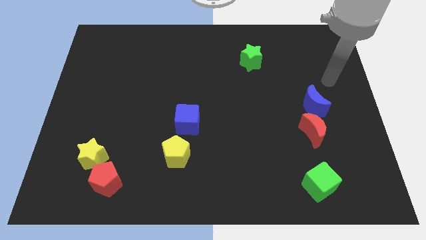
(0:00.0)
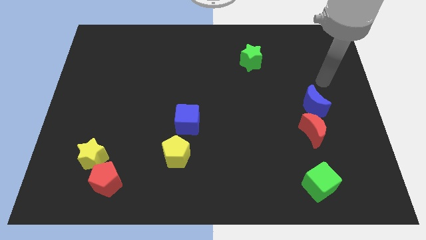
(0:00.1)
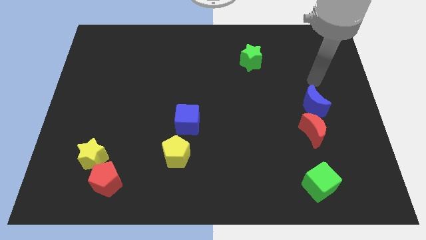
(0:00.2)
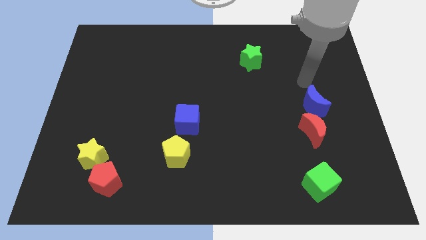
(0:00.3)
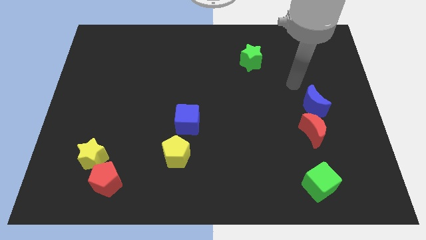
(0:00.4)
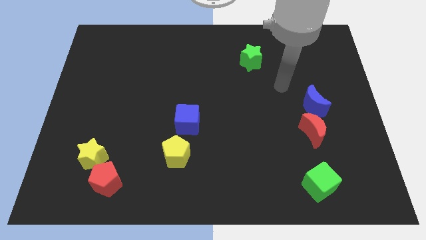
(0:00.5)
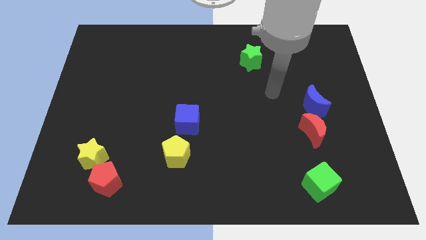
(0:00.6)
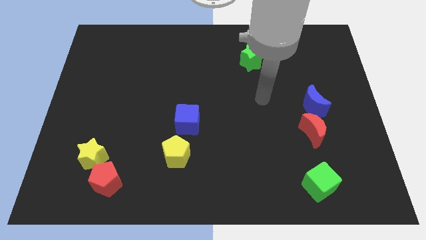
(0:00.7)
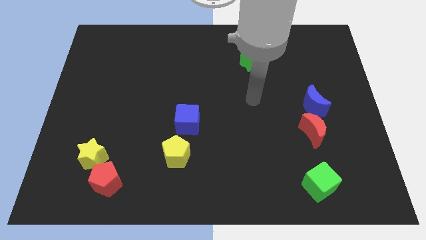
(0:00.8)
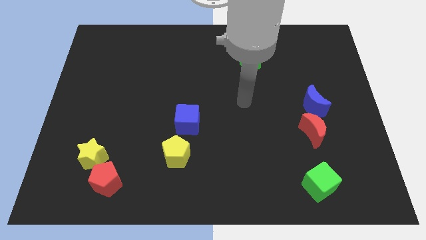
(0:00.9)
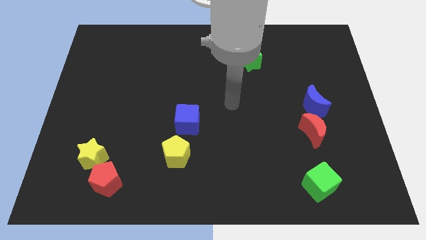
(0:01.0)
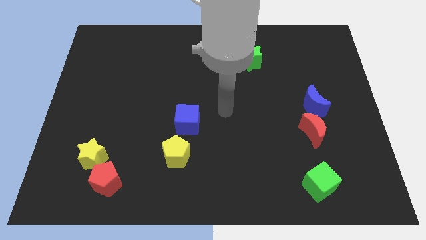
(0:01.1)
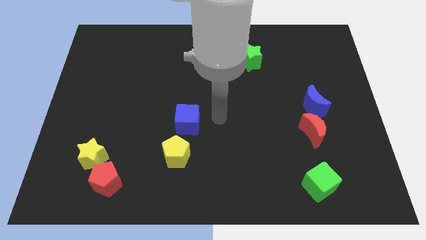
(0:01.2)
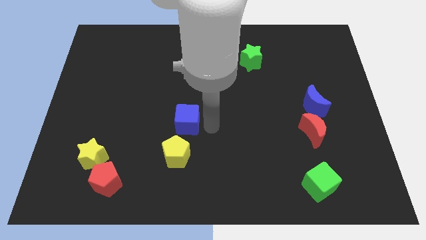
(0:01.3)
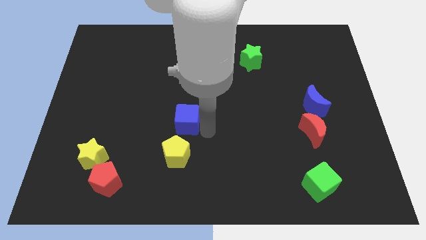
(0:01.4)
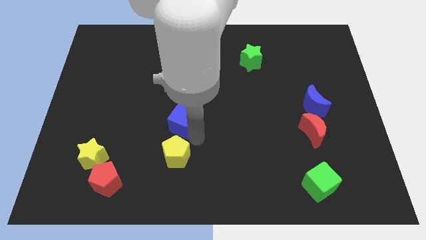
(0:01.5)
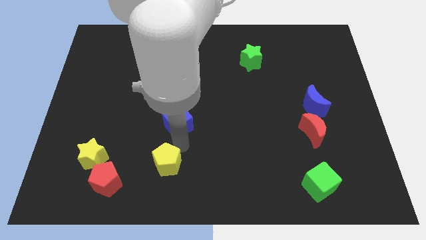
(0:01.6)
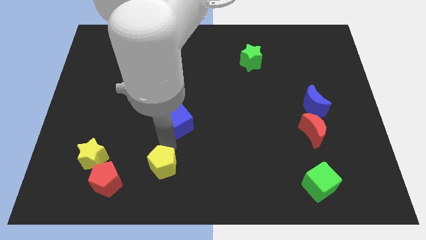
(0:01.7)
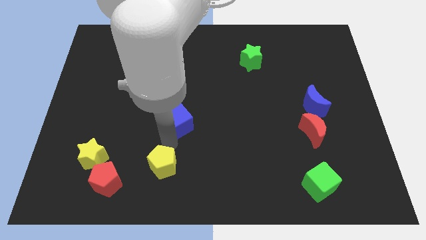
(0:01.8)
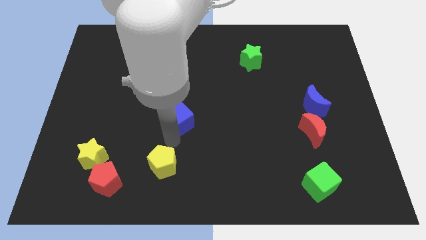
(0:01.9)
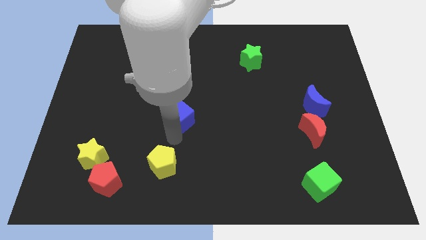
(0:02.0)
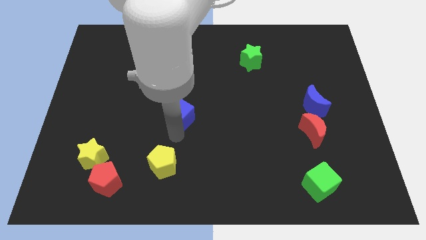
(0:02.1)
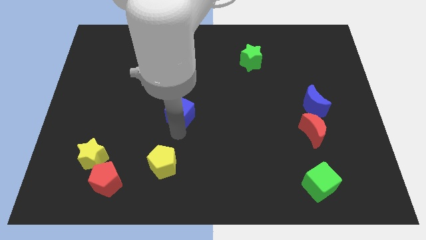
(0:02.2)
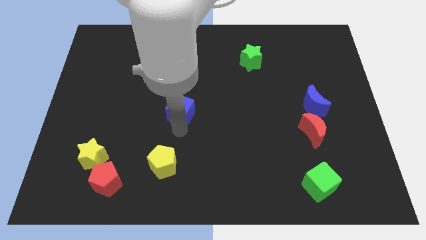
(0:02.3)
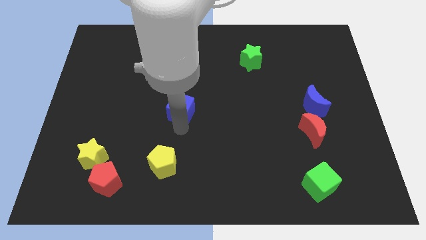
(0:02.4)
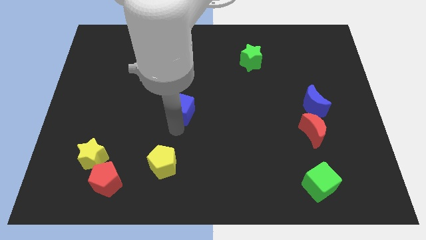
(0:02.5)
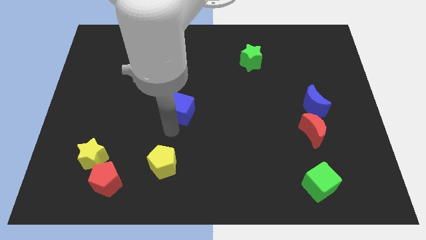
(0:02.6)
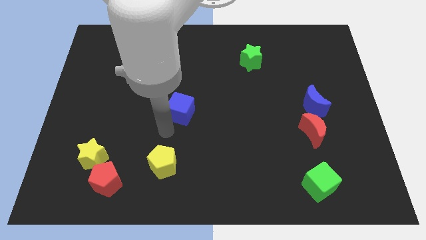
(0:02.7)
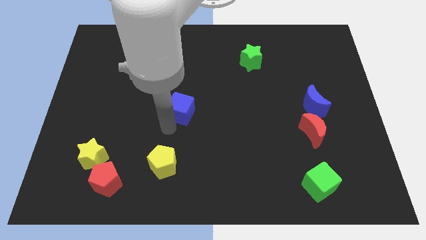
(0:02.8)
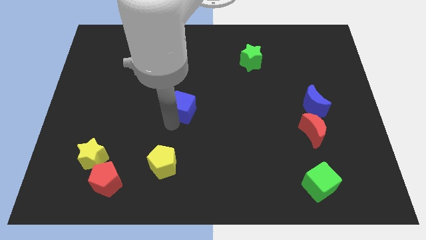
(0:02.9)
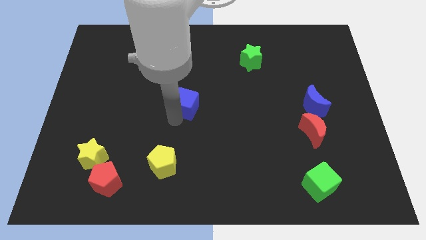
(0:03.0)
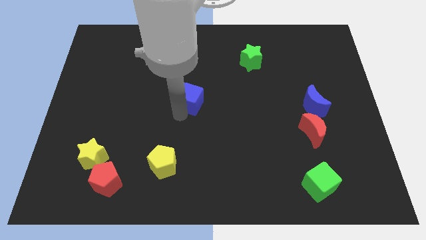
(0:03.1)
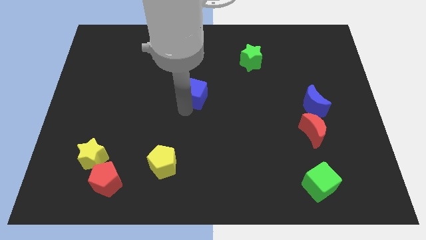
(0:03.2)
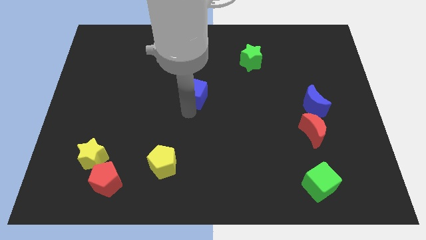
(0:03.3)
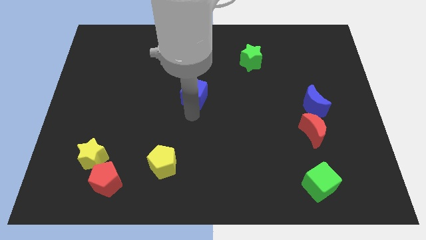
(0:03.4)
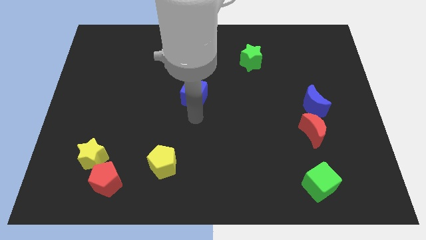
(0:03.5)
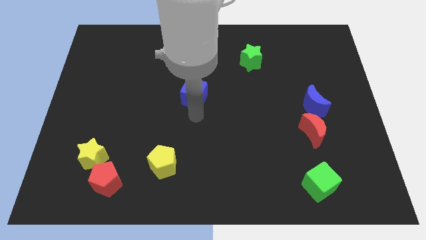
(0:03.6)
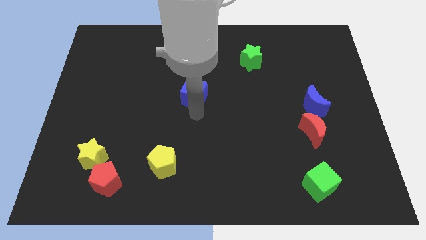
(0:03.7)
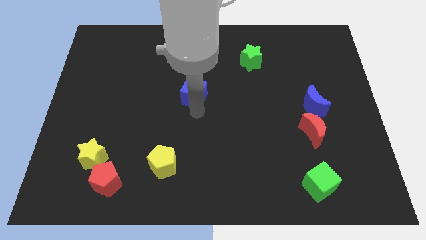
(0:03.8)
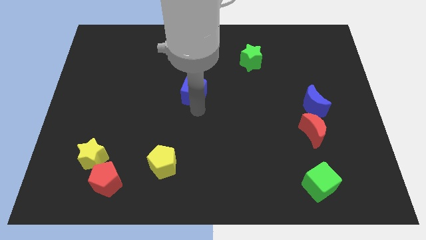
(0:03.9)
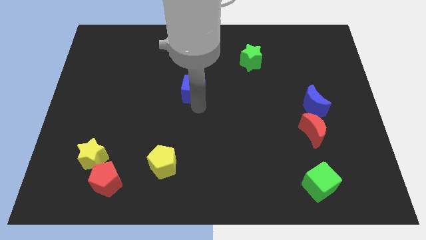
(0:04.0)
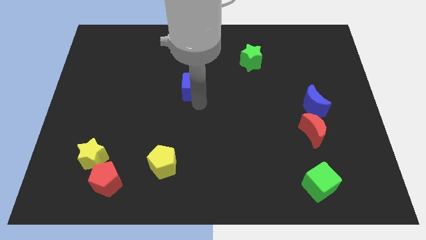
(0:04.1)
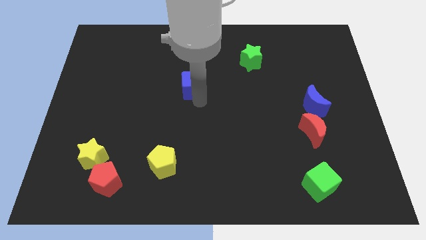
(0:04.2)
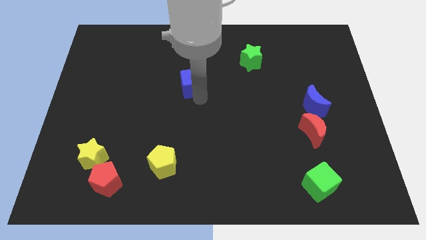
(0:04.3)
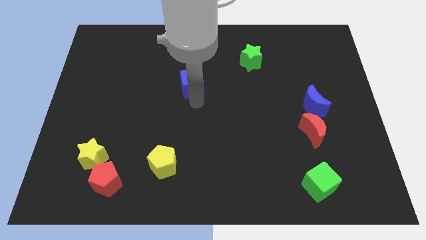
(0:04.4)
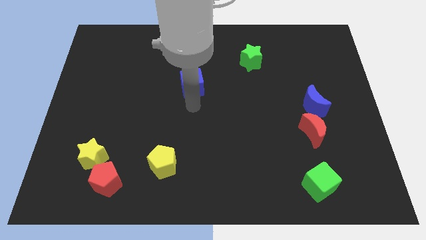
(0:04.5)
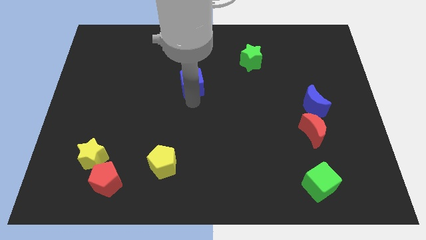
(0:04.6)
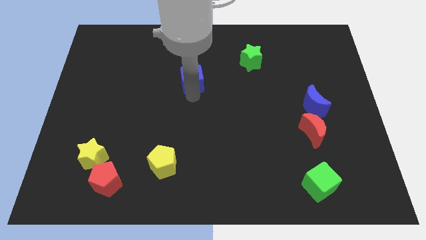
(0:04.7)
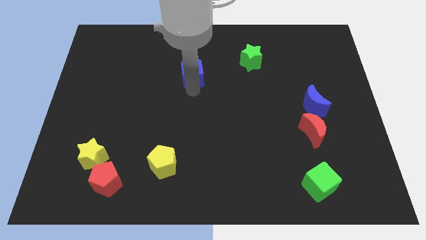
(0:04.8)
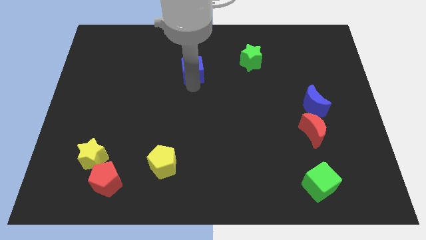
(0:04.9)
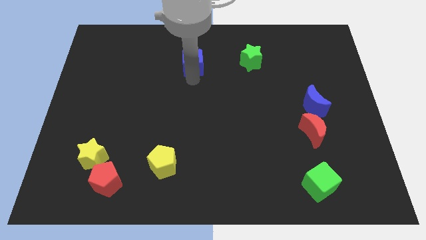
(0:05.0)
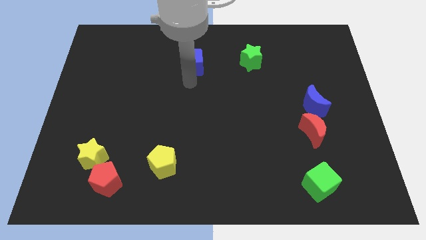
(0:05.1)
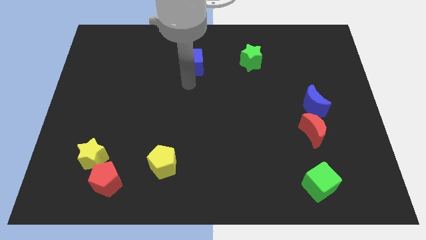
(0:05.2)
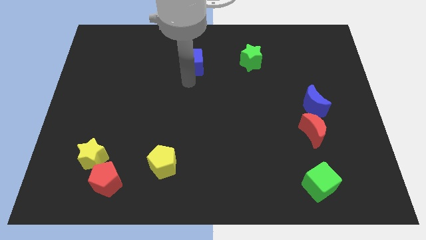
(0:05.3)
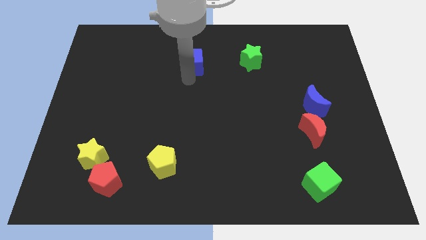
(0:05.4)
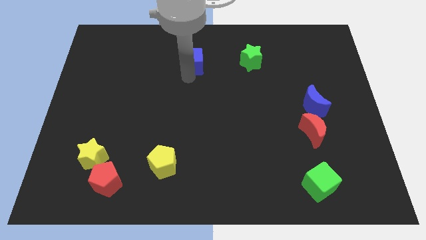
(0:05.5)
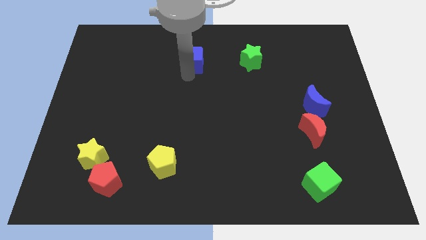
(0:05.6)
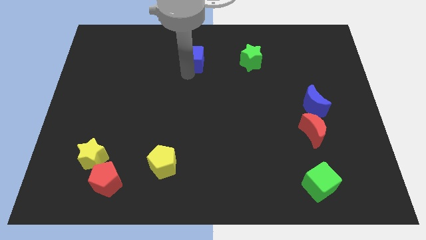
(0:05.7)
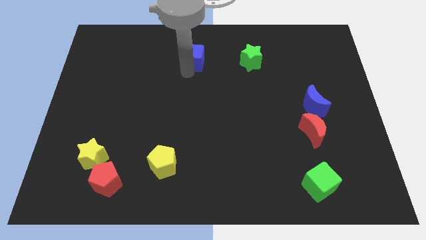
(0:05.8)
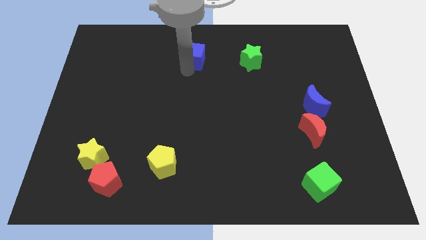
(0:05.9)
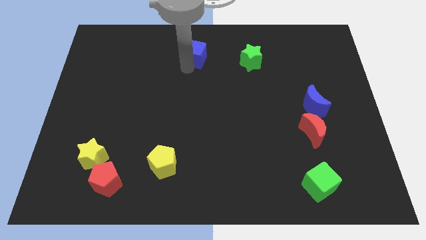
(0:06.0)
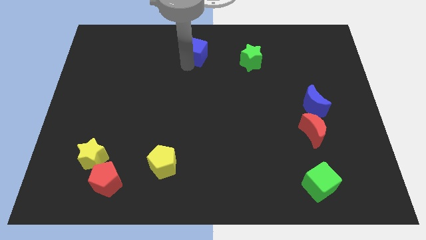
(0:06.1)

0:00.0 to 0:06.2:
move the blue cube to the top

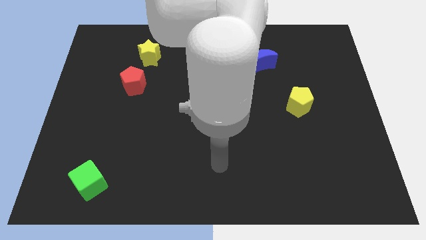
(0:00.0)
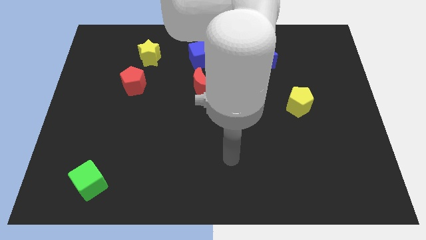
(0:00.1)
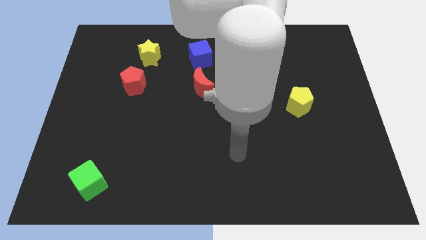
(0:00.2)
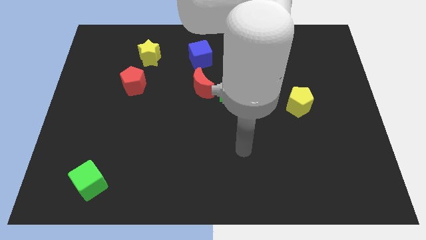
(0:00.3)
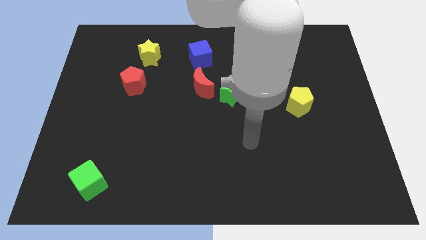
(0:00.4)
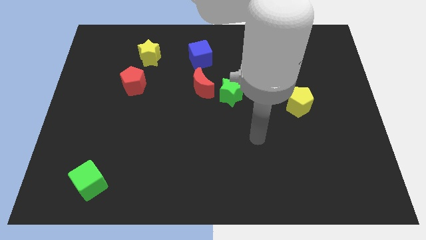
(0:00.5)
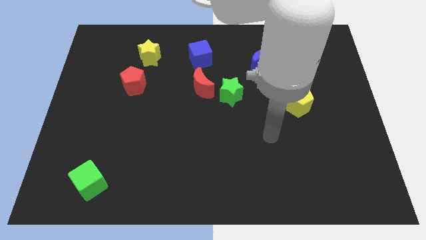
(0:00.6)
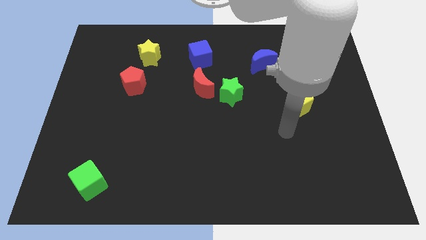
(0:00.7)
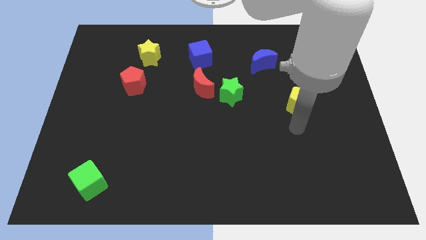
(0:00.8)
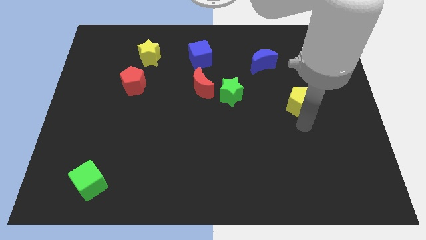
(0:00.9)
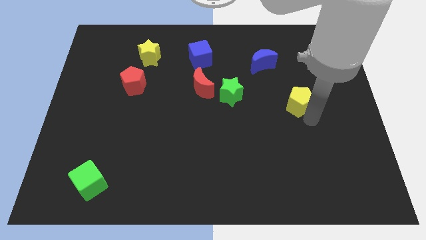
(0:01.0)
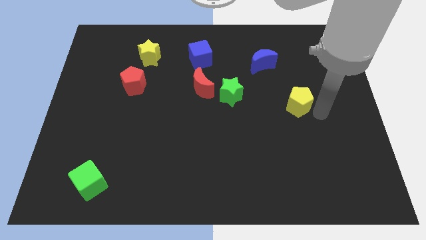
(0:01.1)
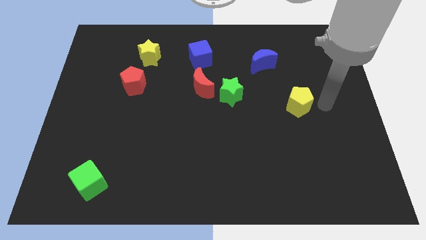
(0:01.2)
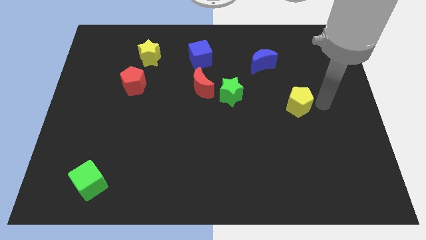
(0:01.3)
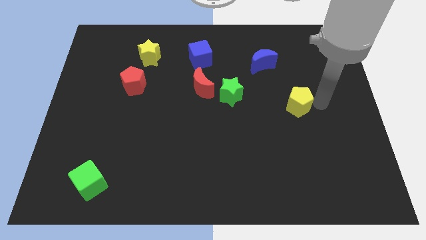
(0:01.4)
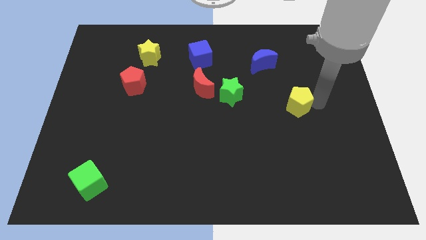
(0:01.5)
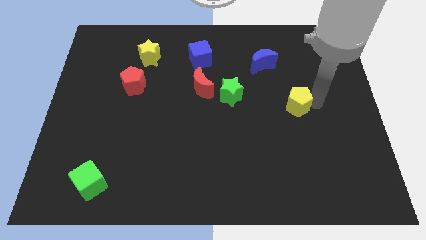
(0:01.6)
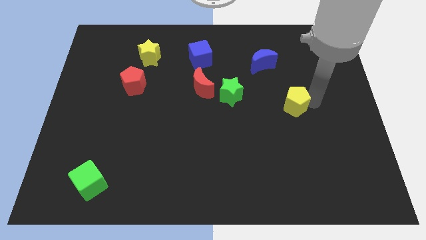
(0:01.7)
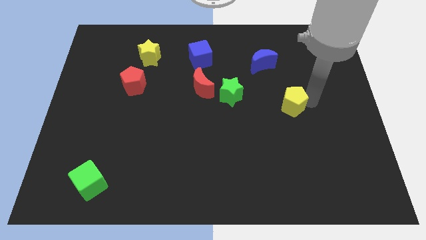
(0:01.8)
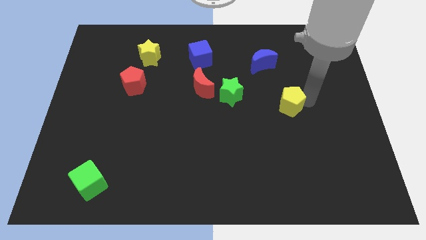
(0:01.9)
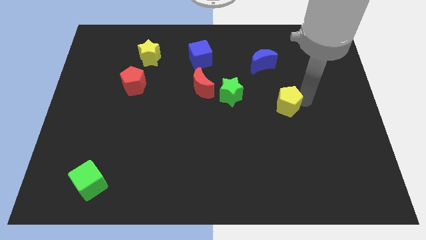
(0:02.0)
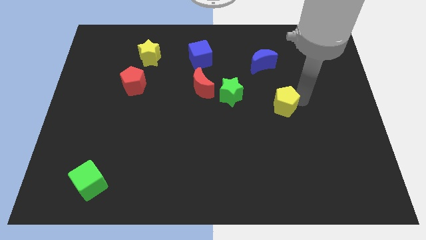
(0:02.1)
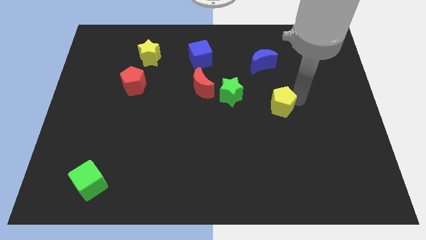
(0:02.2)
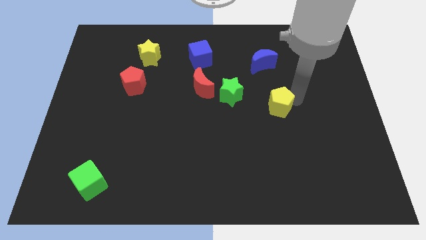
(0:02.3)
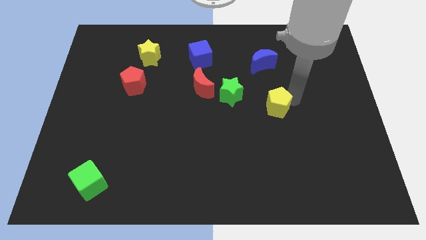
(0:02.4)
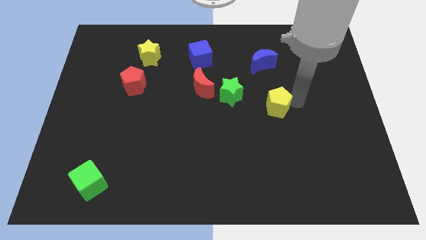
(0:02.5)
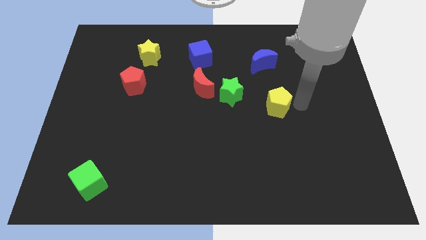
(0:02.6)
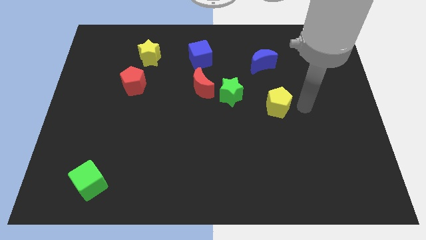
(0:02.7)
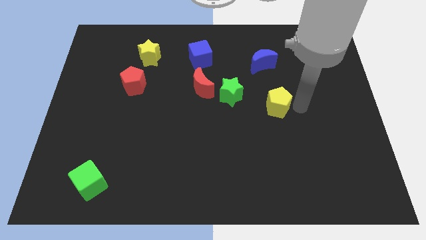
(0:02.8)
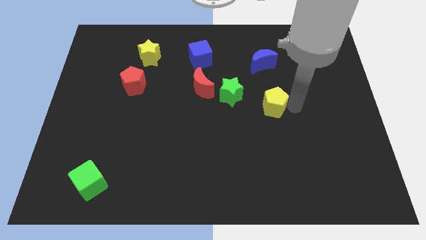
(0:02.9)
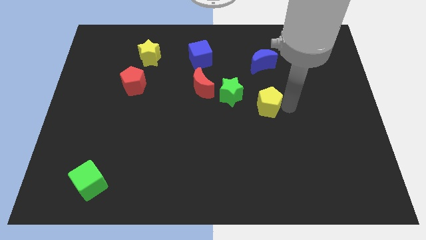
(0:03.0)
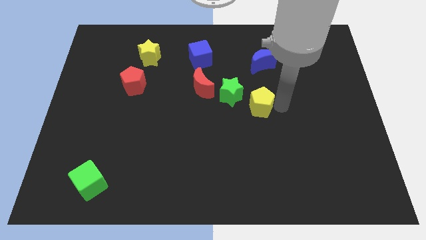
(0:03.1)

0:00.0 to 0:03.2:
slide the yellow pentagon to the middle
